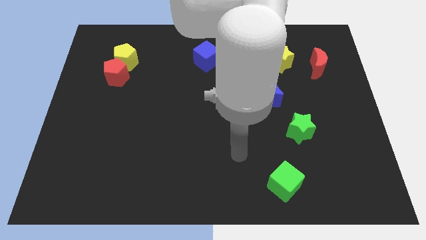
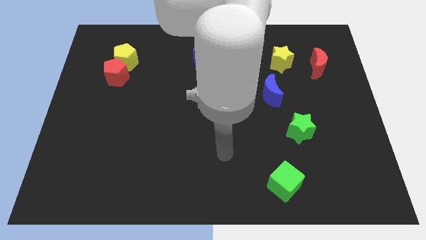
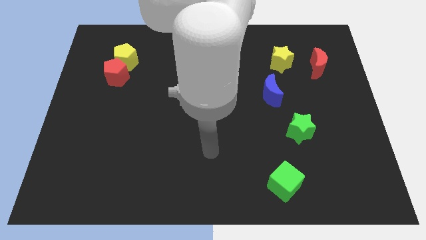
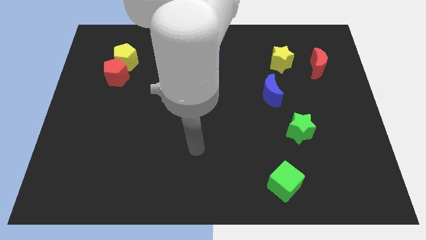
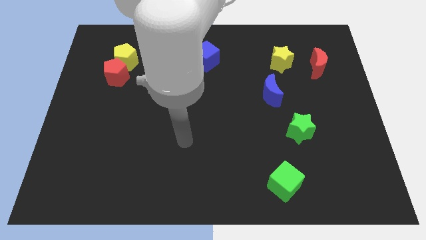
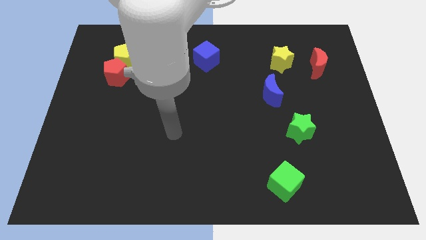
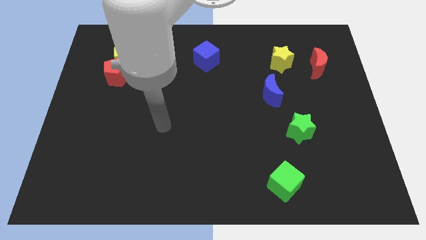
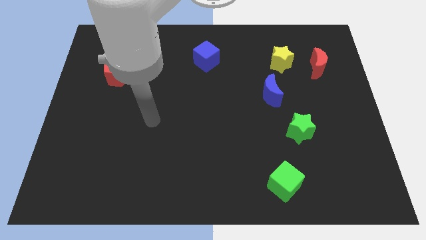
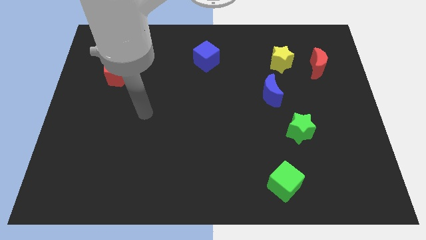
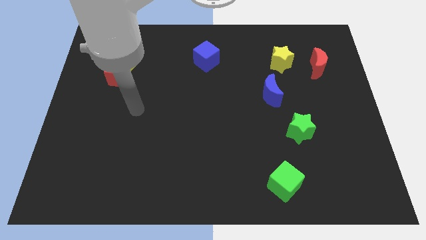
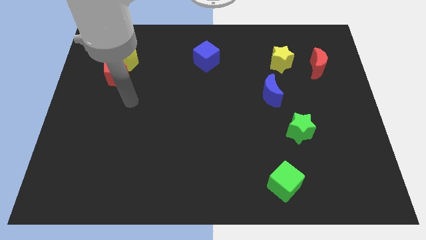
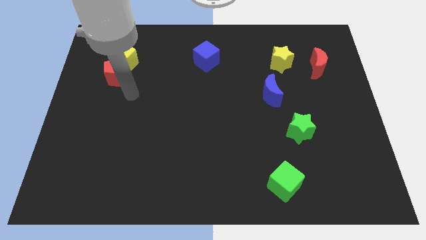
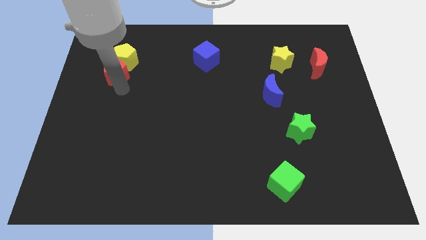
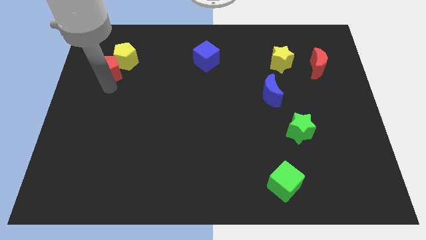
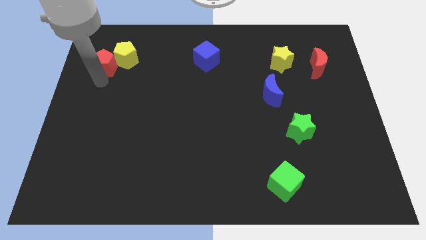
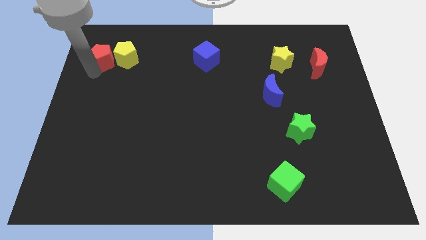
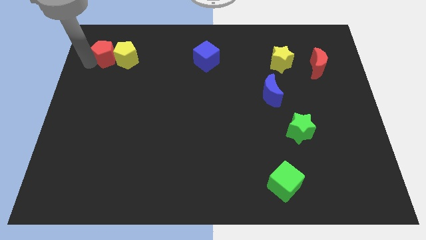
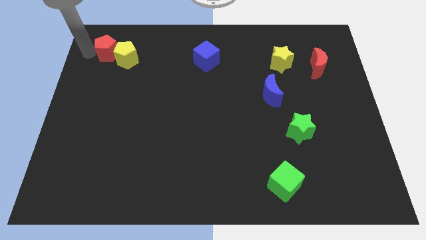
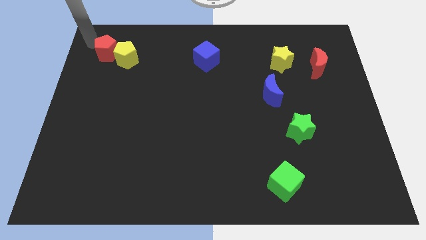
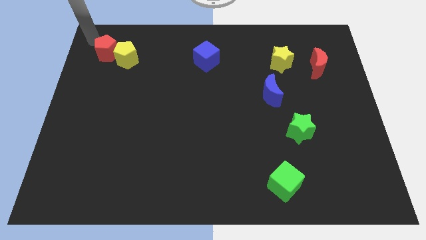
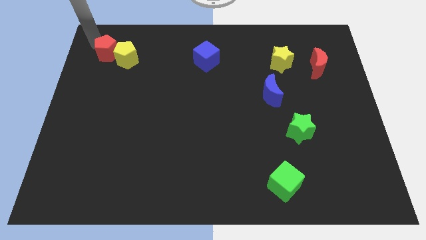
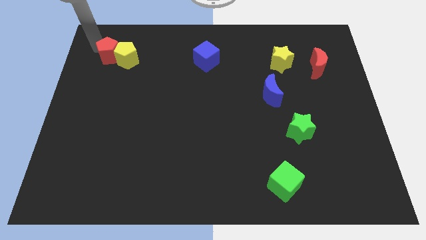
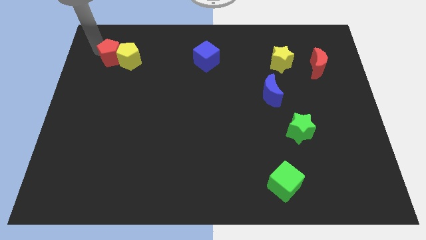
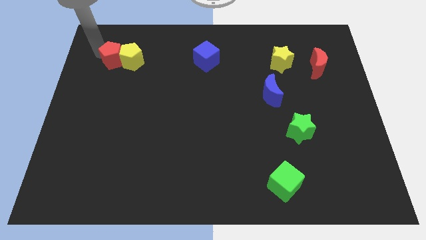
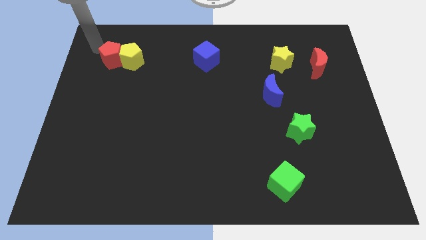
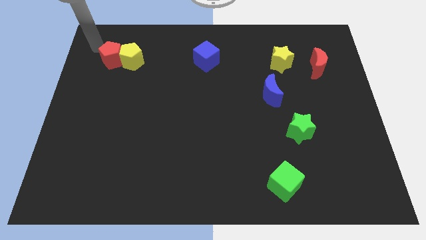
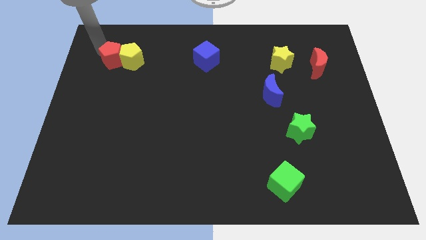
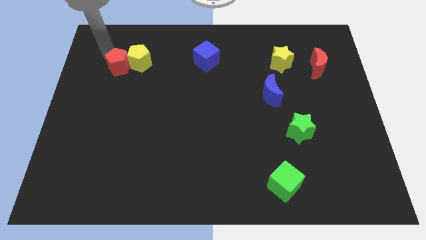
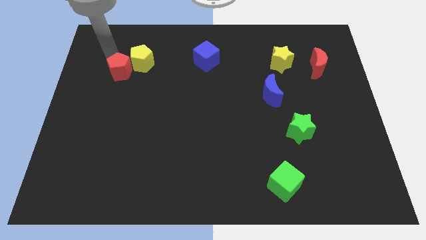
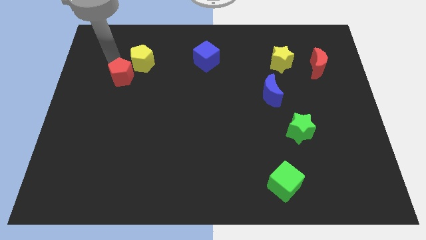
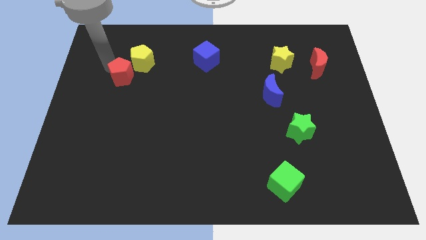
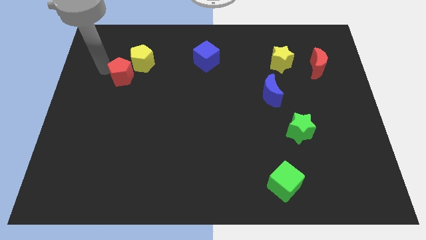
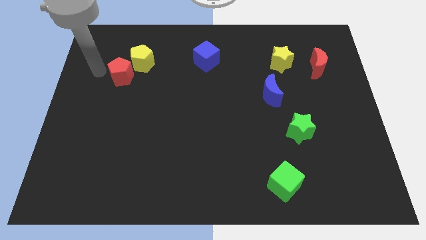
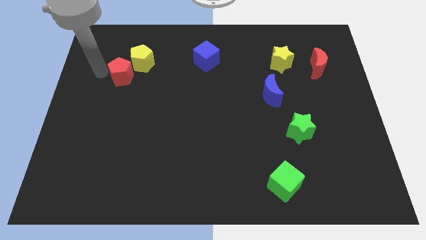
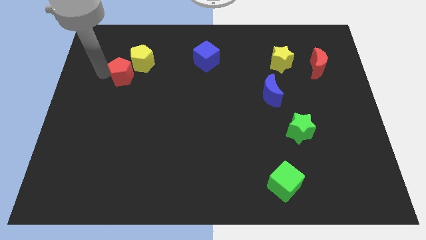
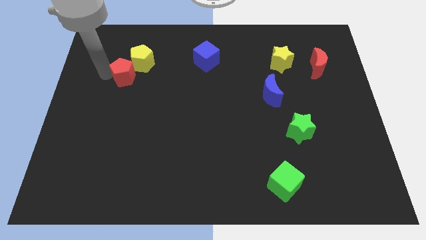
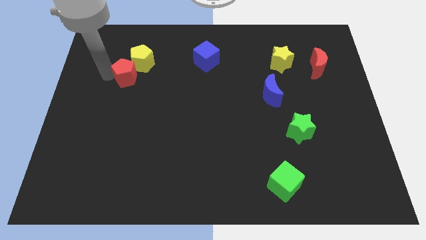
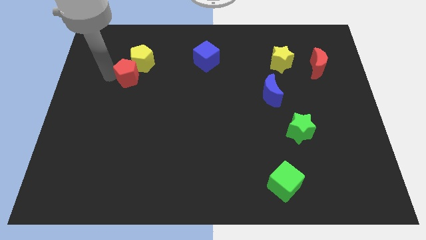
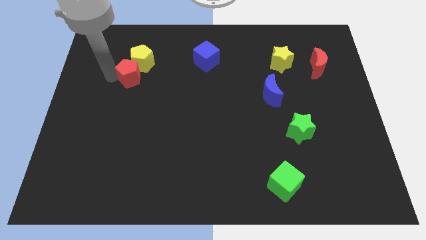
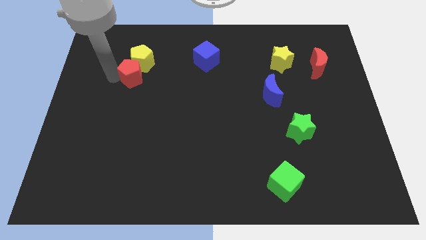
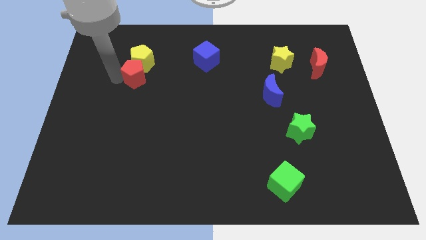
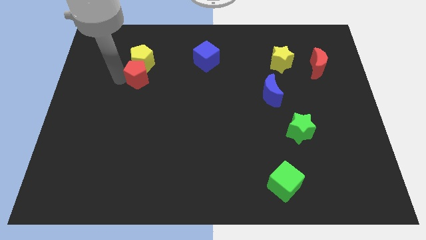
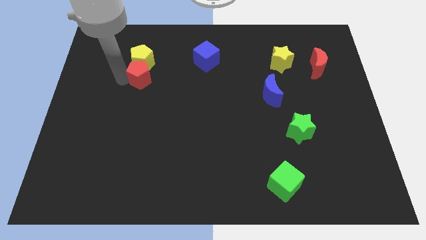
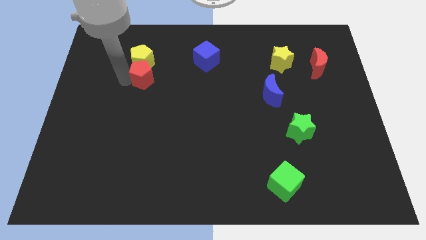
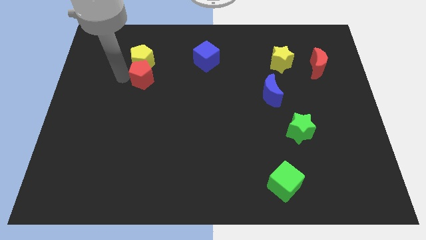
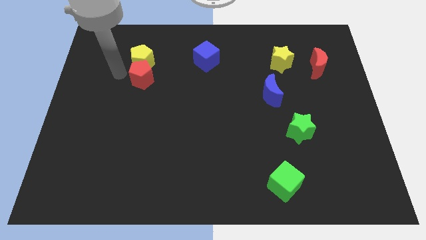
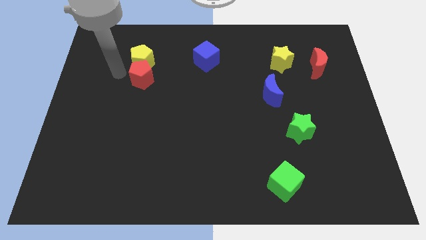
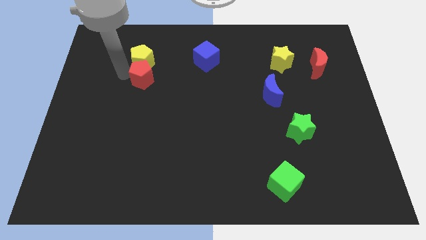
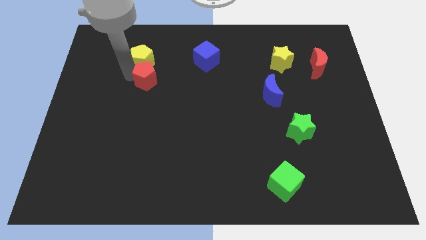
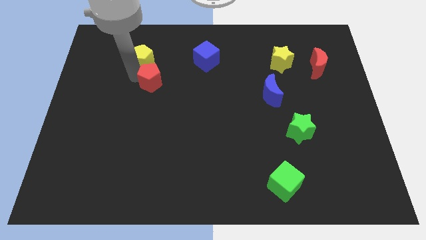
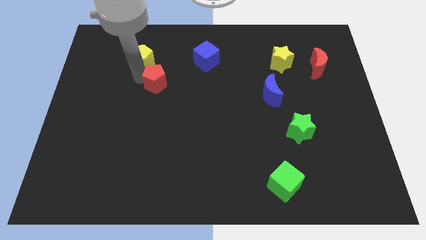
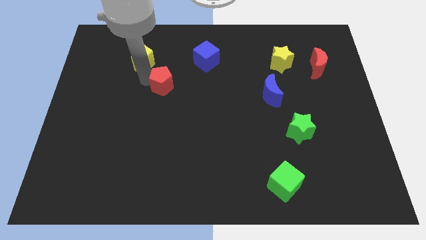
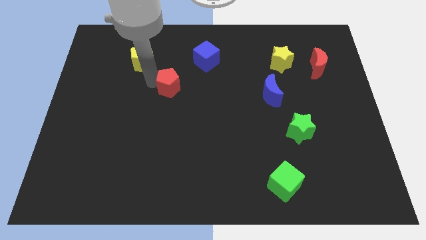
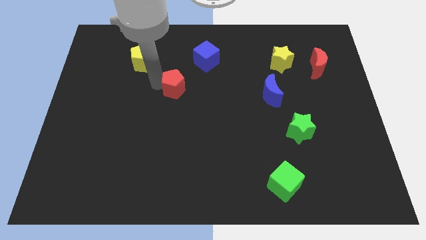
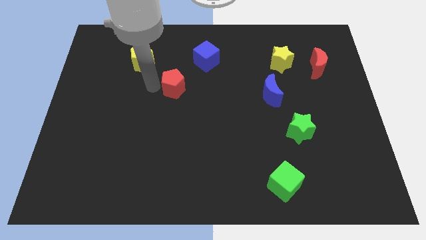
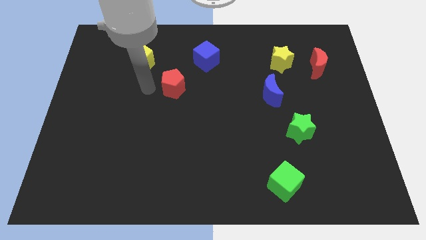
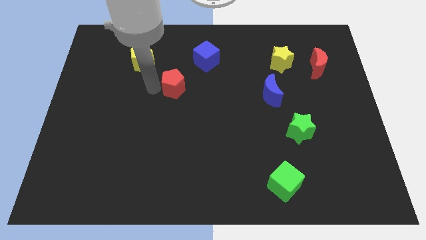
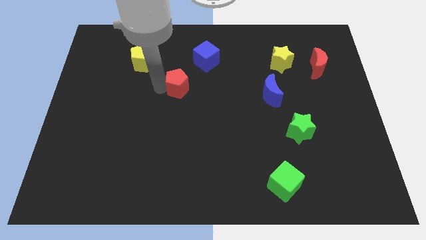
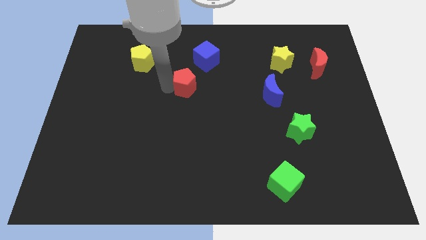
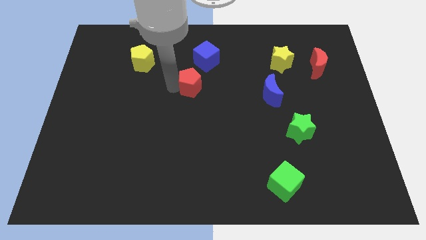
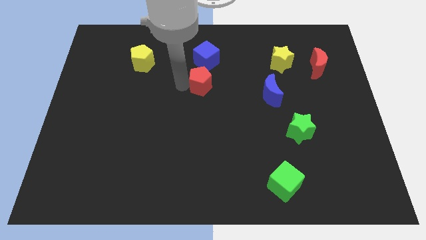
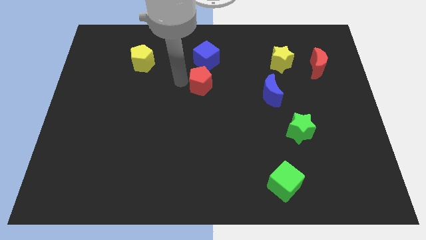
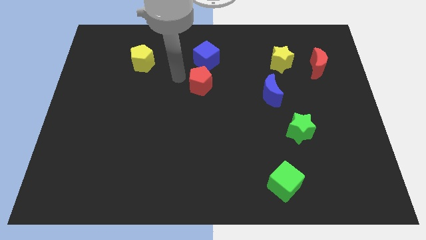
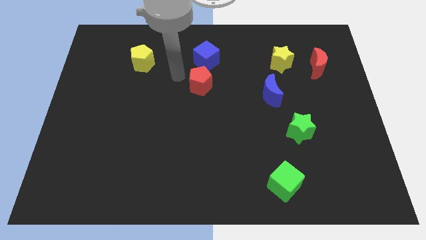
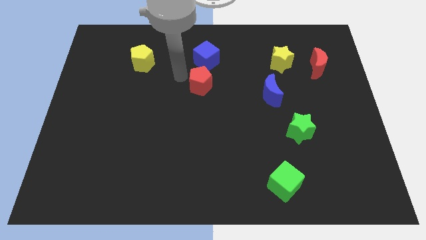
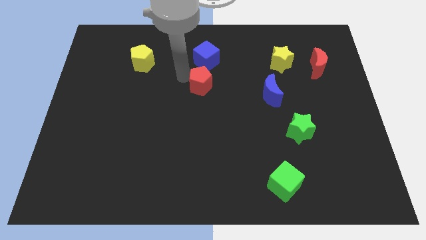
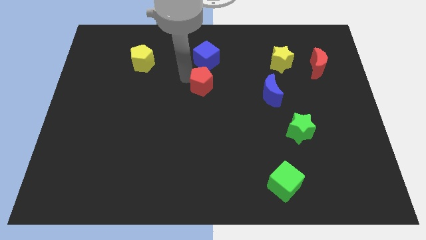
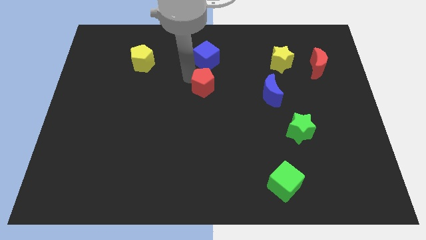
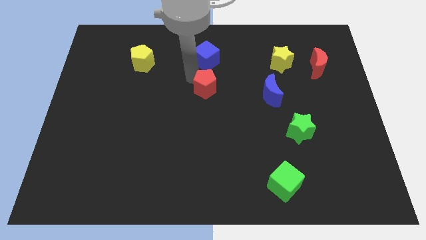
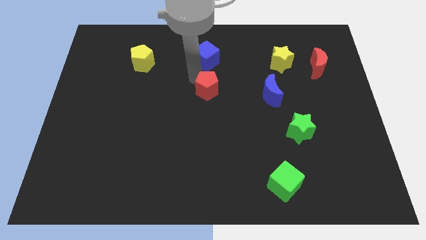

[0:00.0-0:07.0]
move the red pentagon to the left side of the blue moon

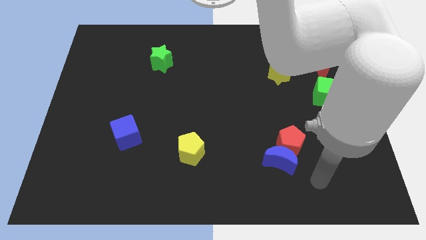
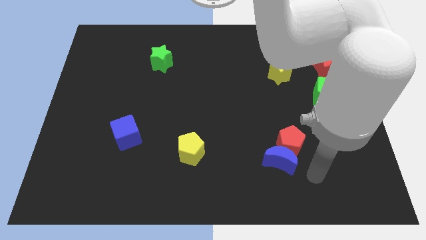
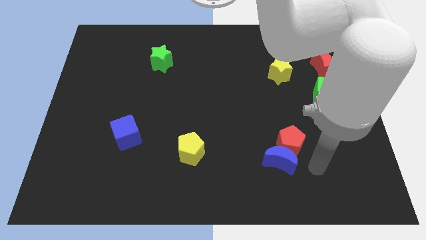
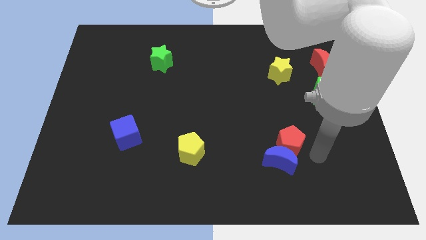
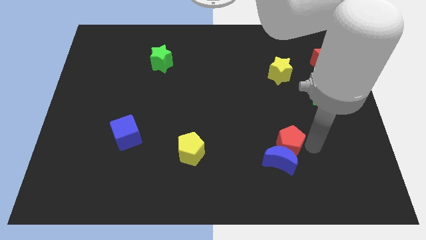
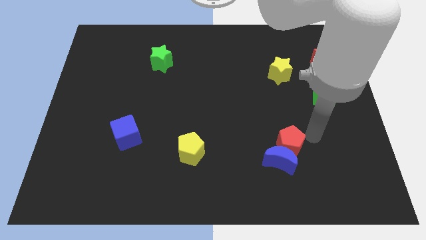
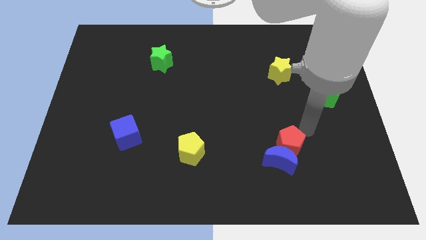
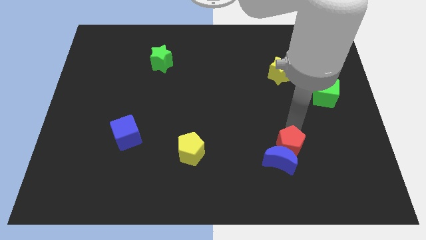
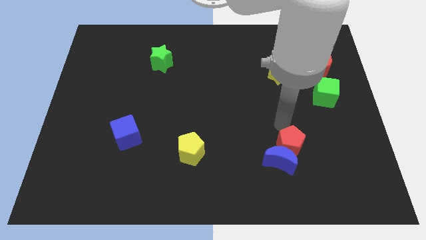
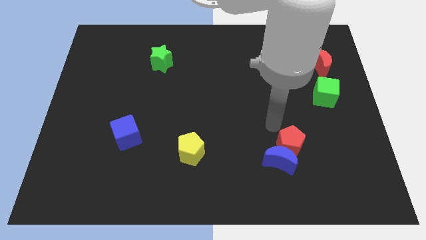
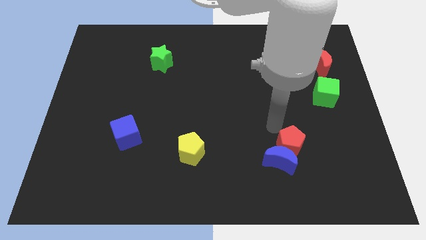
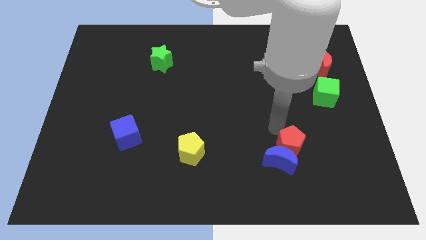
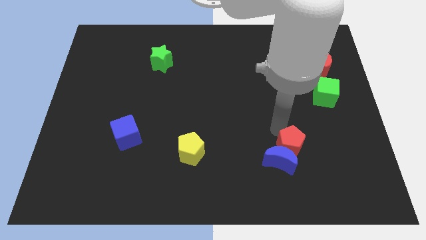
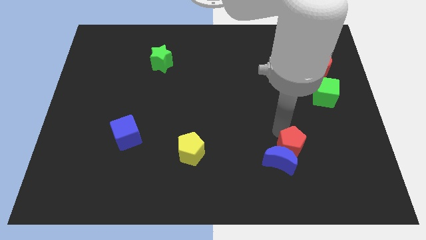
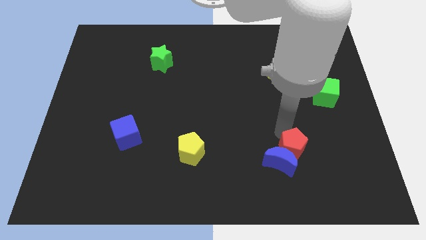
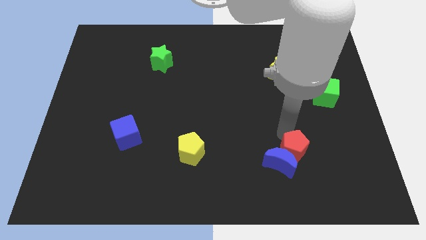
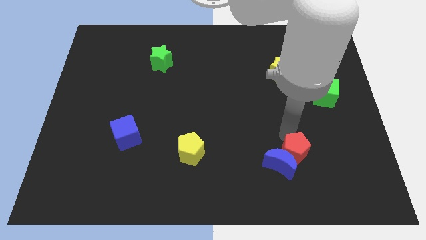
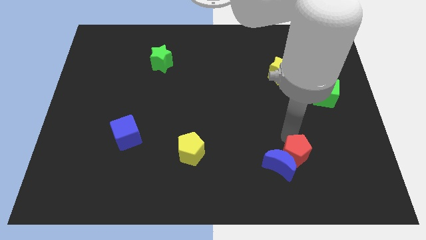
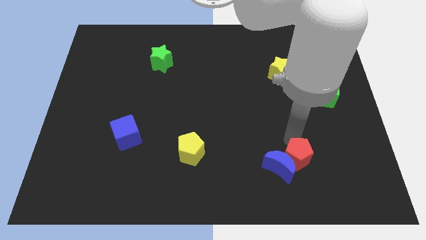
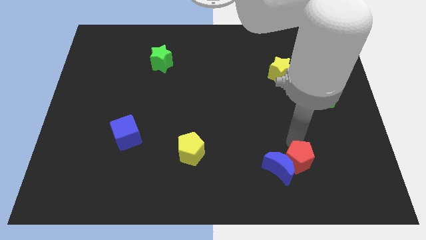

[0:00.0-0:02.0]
put the red pentagon to the bottom right side of the blue moon
